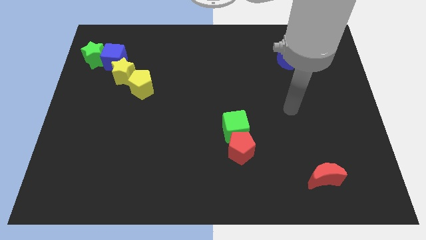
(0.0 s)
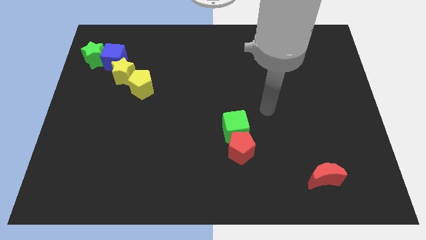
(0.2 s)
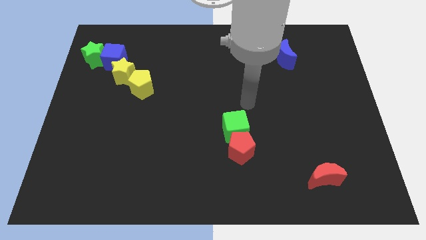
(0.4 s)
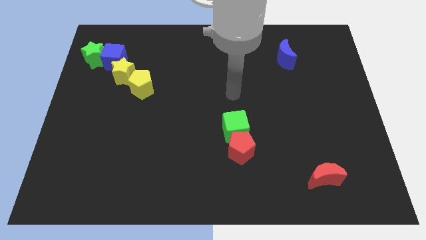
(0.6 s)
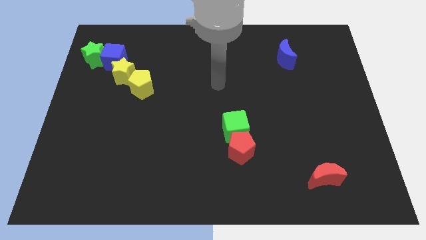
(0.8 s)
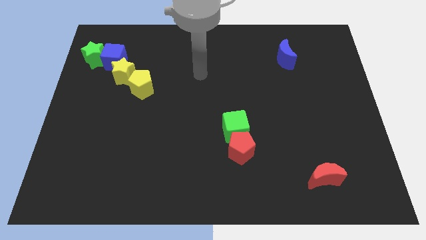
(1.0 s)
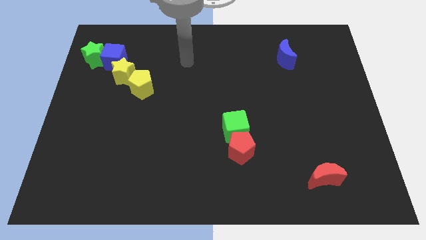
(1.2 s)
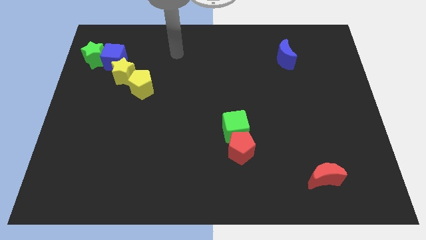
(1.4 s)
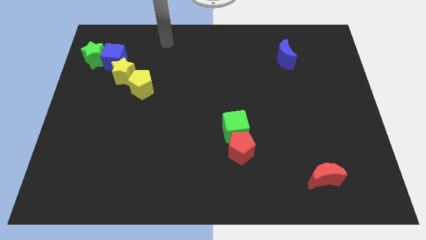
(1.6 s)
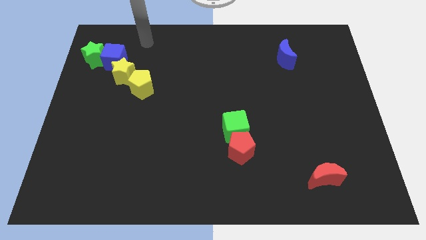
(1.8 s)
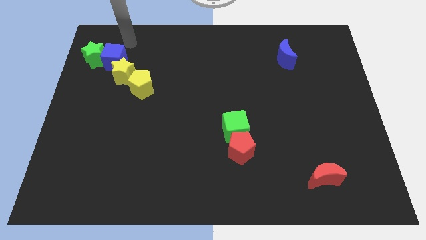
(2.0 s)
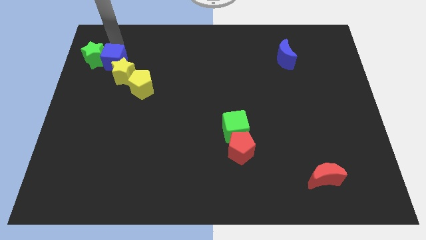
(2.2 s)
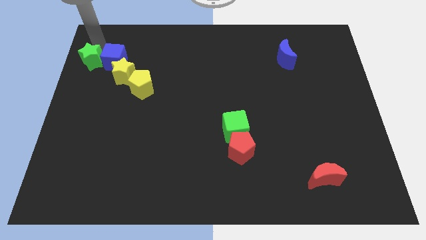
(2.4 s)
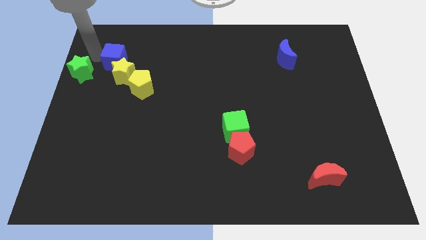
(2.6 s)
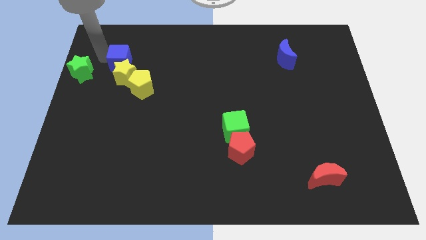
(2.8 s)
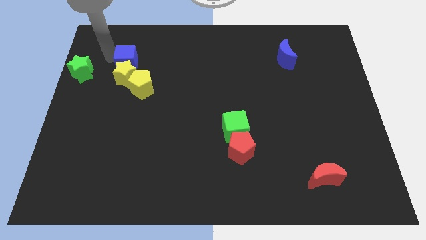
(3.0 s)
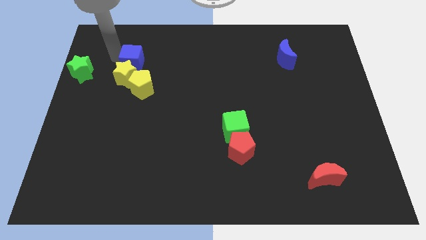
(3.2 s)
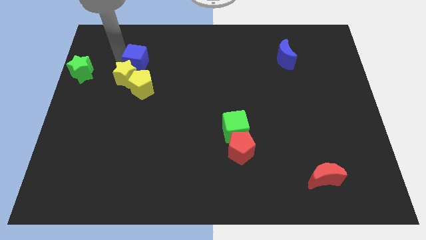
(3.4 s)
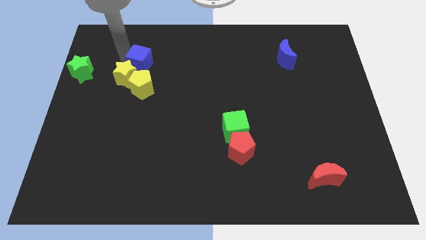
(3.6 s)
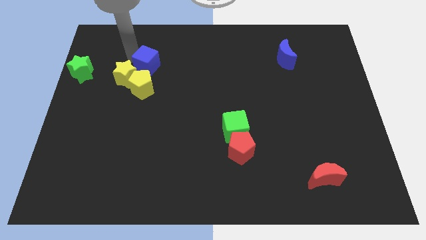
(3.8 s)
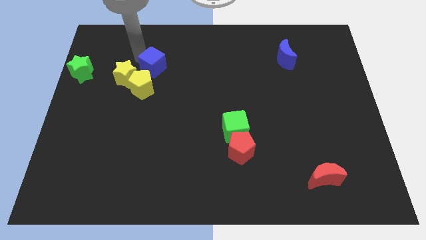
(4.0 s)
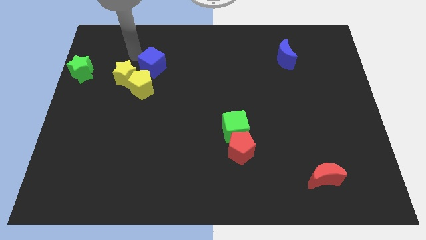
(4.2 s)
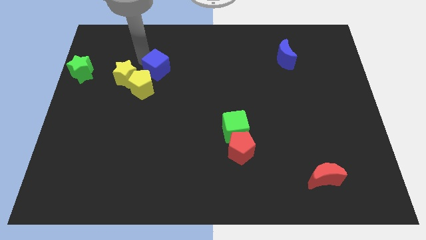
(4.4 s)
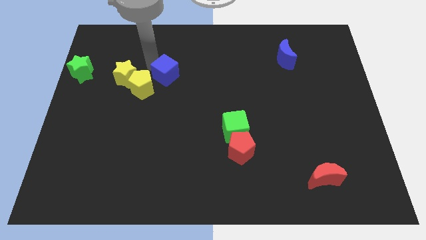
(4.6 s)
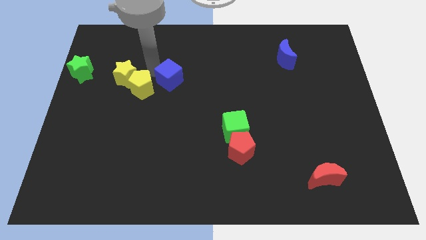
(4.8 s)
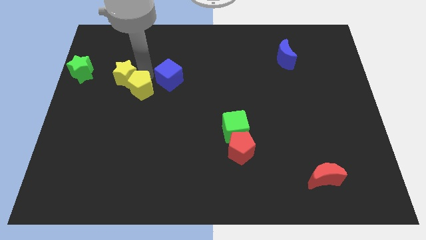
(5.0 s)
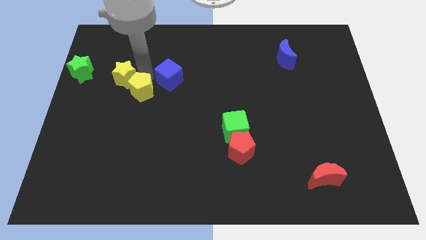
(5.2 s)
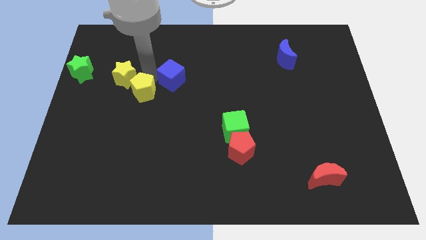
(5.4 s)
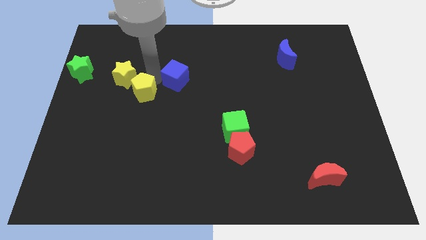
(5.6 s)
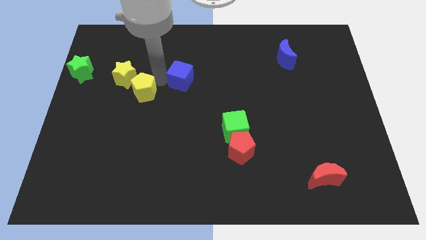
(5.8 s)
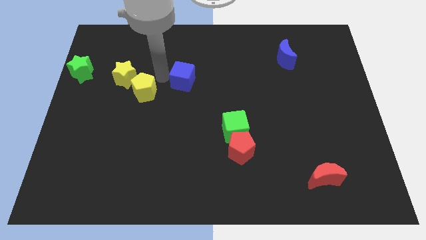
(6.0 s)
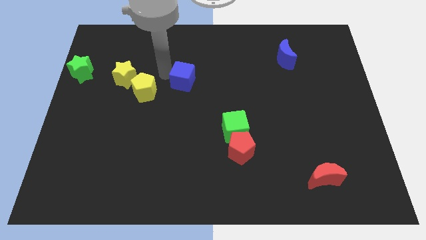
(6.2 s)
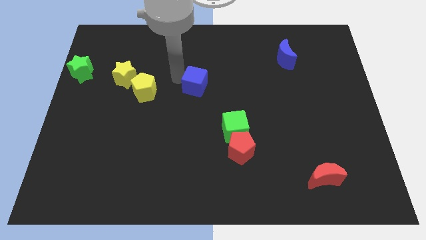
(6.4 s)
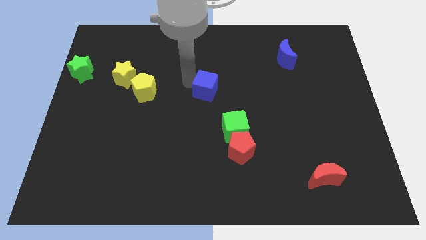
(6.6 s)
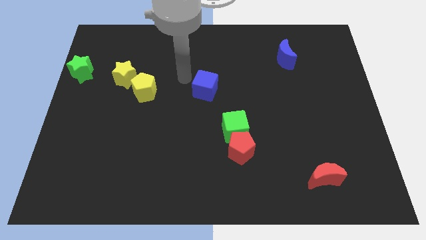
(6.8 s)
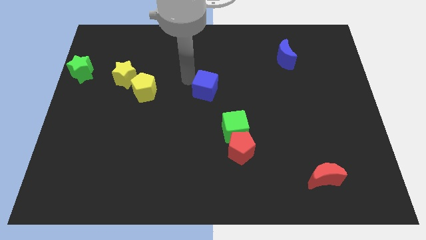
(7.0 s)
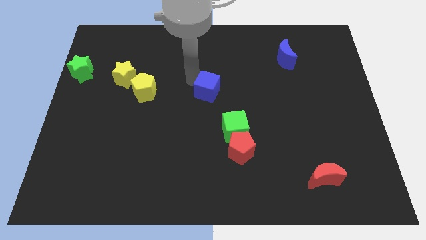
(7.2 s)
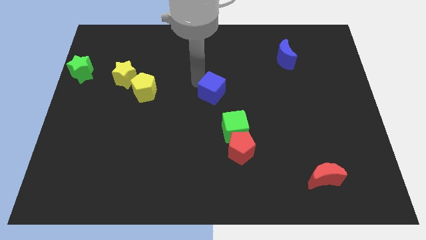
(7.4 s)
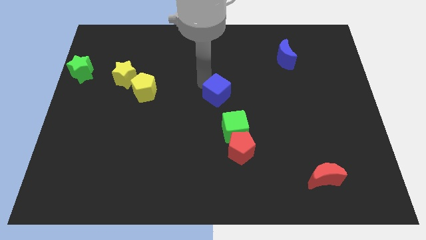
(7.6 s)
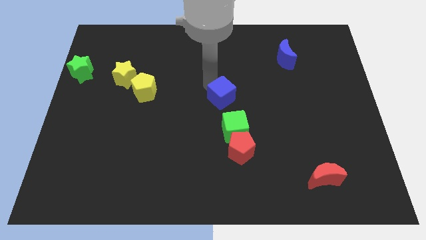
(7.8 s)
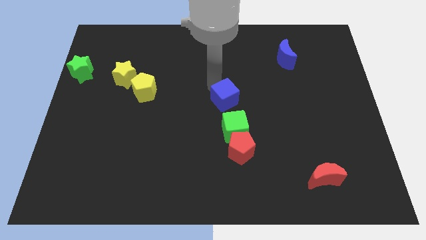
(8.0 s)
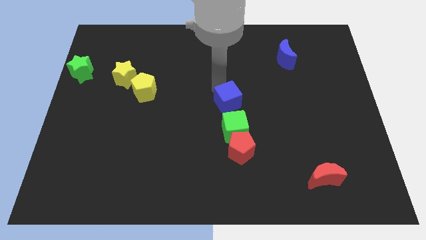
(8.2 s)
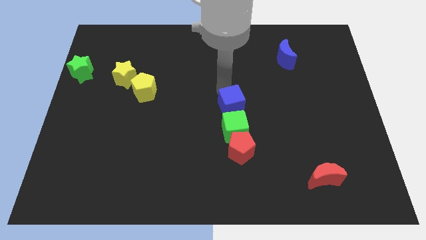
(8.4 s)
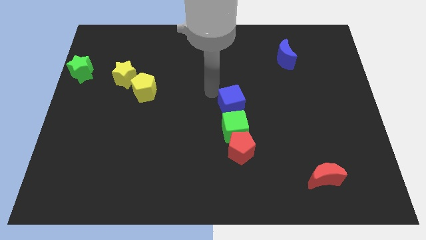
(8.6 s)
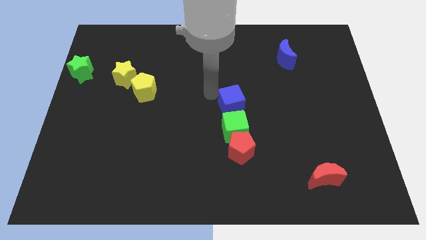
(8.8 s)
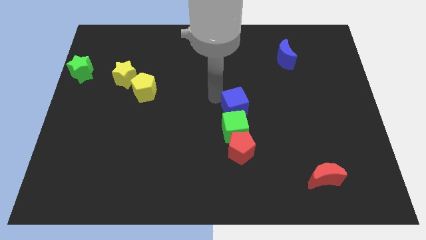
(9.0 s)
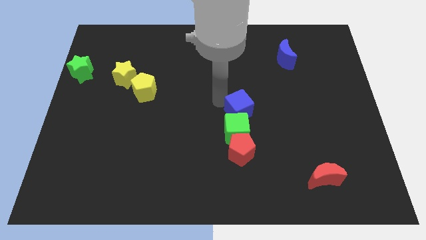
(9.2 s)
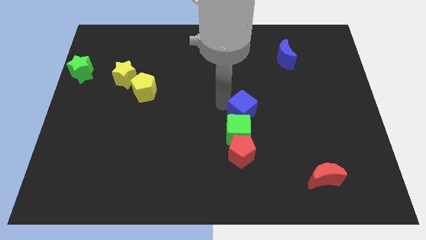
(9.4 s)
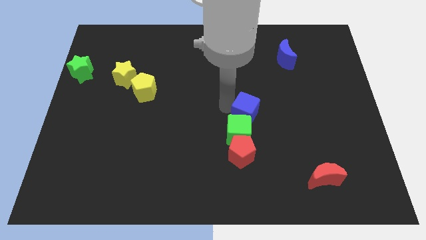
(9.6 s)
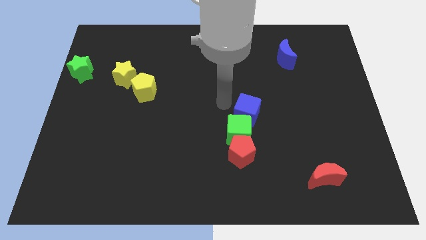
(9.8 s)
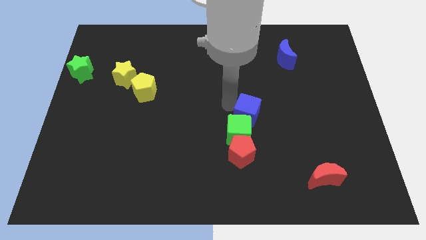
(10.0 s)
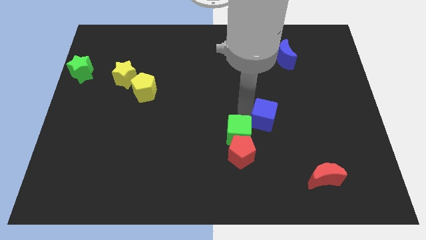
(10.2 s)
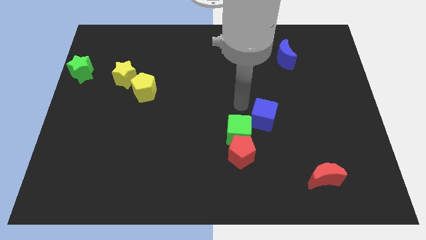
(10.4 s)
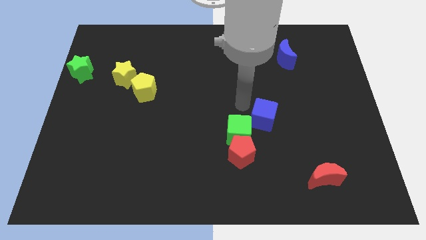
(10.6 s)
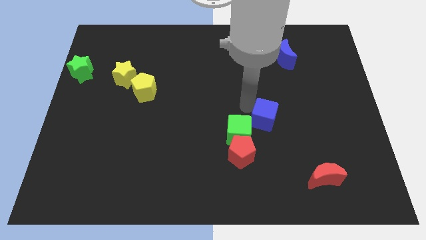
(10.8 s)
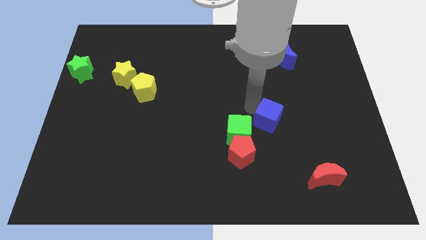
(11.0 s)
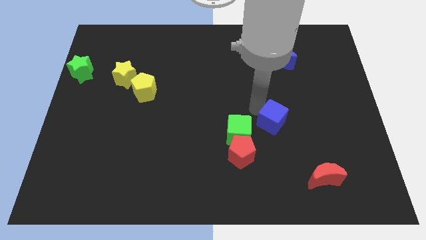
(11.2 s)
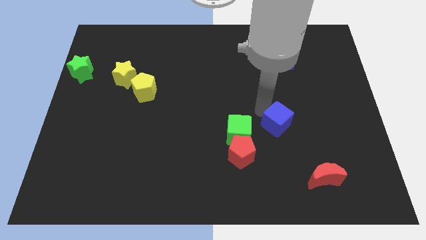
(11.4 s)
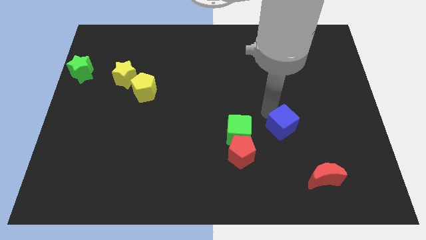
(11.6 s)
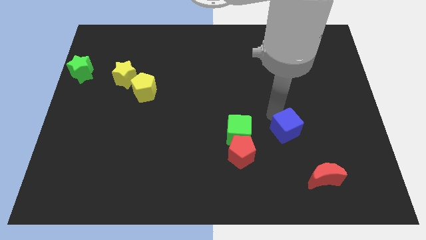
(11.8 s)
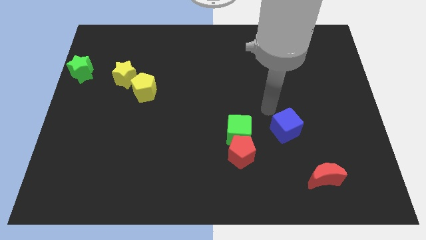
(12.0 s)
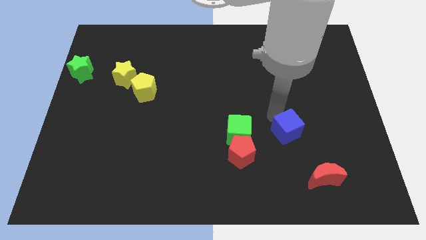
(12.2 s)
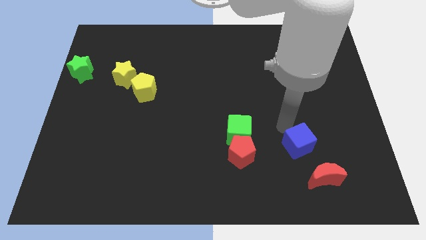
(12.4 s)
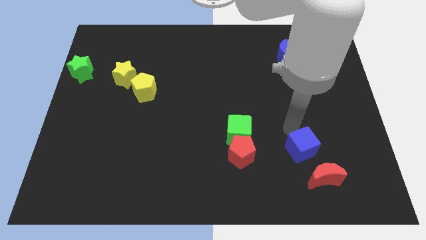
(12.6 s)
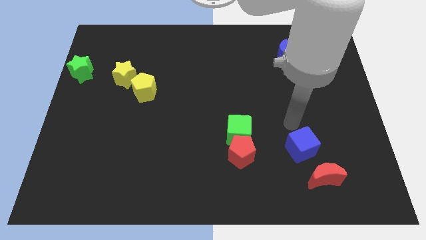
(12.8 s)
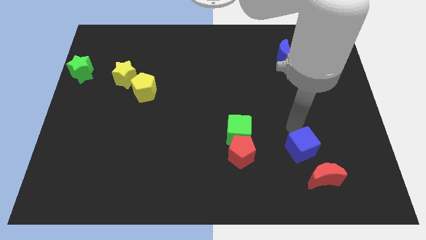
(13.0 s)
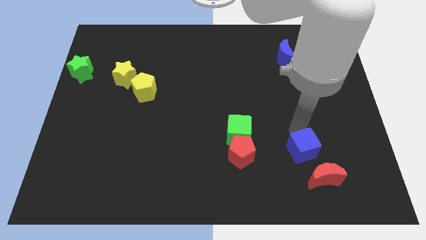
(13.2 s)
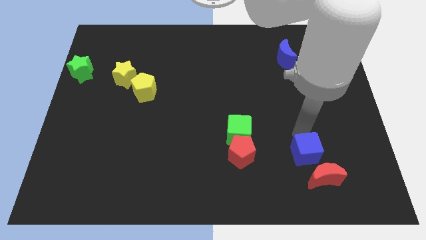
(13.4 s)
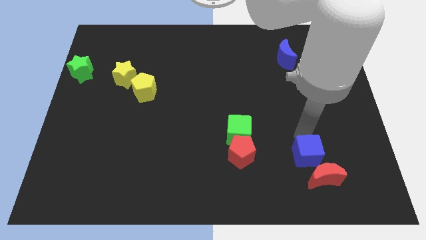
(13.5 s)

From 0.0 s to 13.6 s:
put the blue cube to the red moon

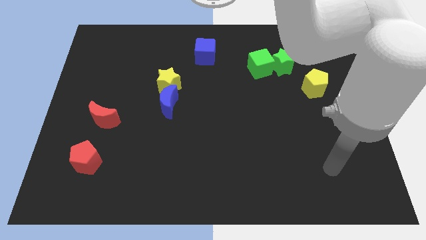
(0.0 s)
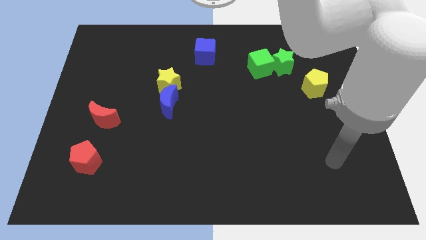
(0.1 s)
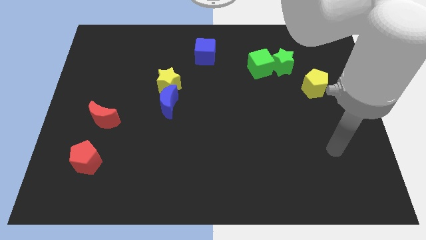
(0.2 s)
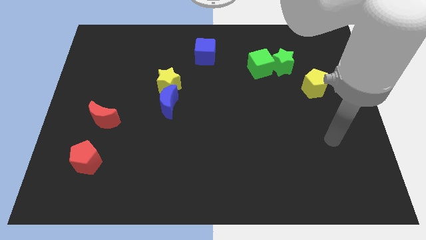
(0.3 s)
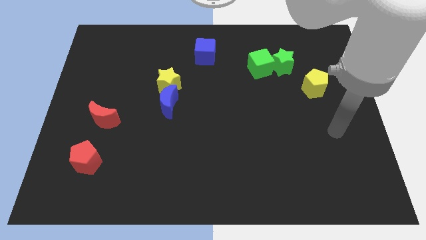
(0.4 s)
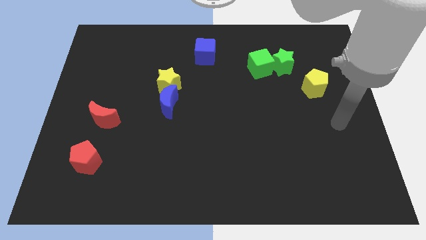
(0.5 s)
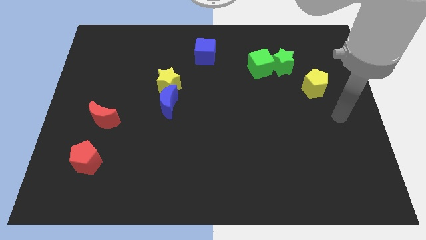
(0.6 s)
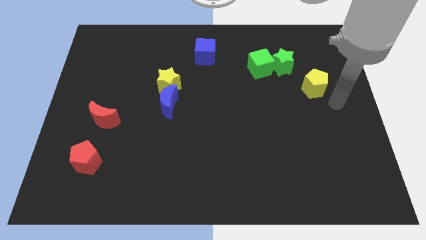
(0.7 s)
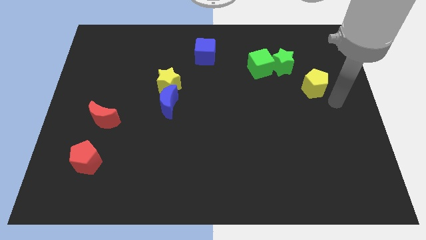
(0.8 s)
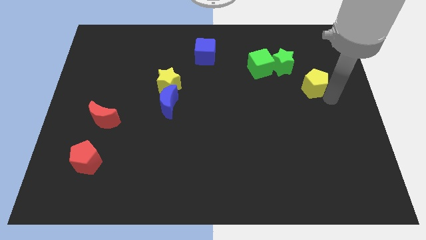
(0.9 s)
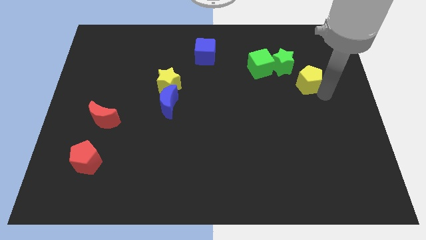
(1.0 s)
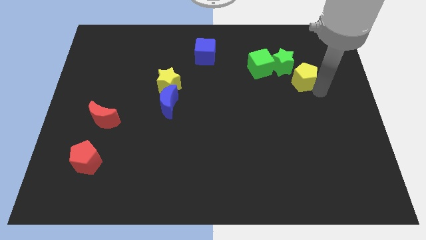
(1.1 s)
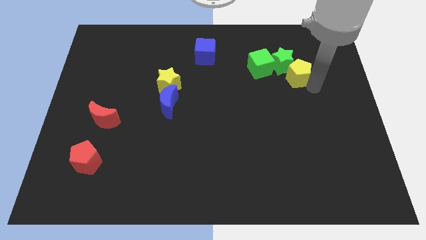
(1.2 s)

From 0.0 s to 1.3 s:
put the yellow pentagon next to the green star
